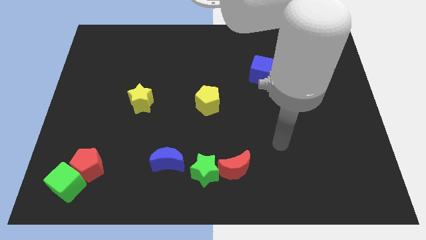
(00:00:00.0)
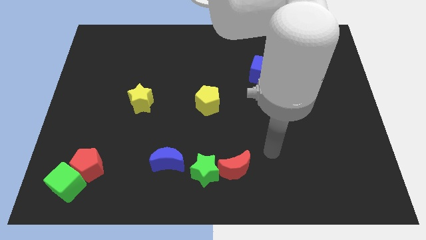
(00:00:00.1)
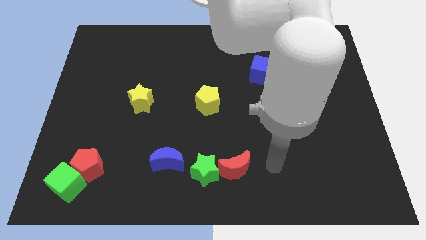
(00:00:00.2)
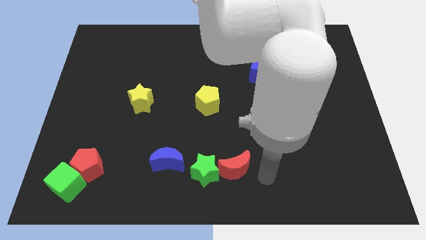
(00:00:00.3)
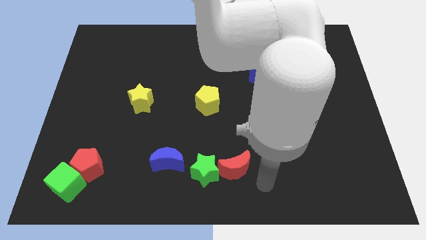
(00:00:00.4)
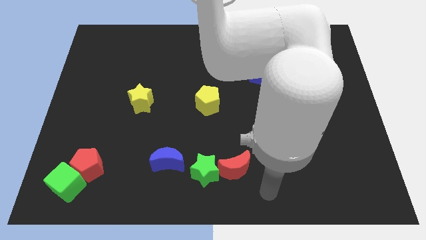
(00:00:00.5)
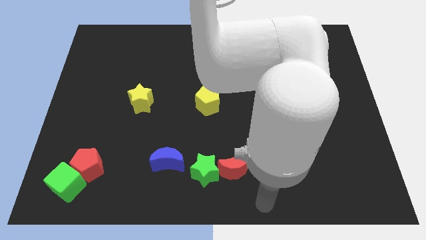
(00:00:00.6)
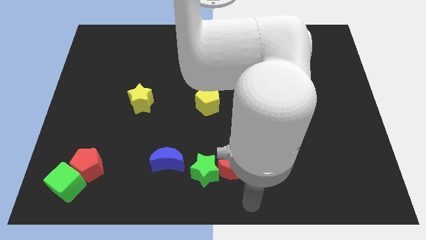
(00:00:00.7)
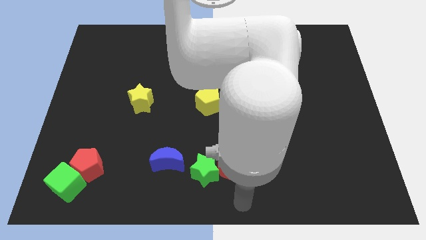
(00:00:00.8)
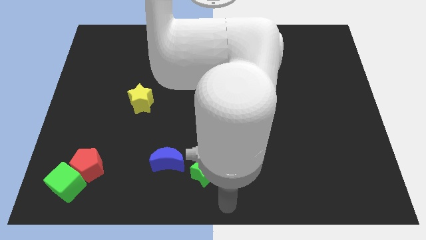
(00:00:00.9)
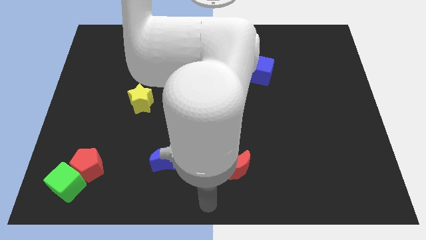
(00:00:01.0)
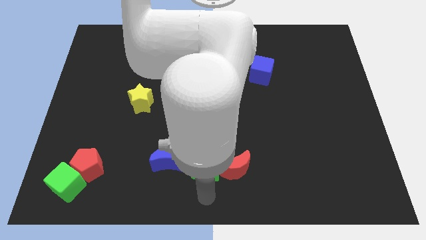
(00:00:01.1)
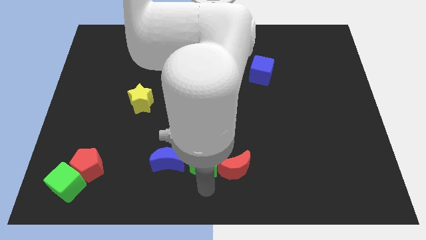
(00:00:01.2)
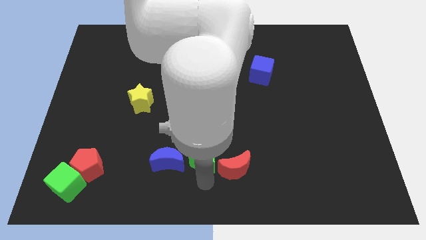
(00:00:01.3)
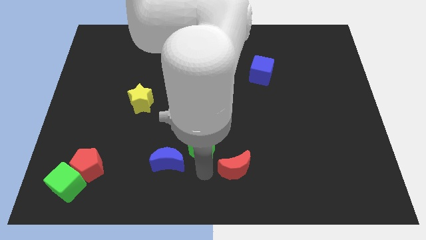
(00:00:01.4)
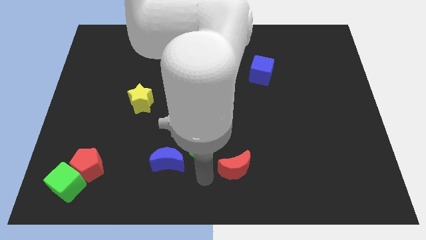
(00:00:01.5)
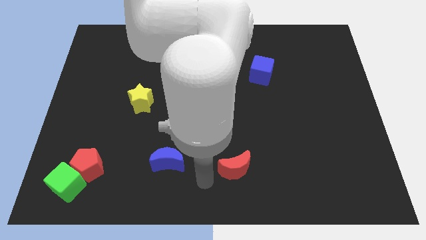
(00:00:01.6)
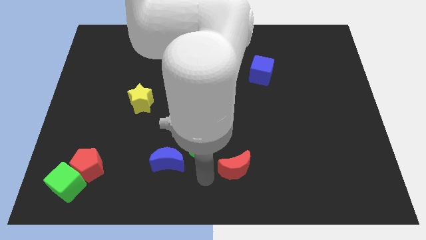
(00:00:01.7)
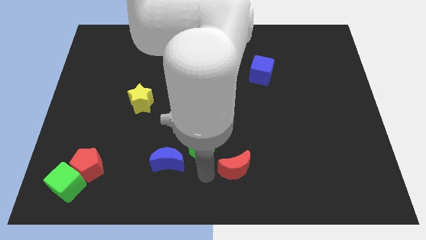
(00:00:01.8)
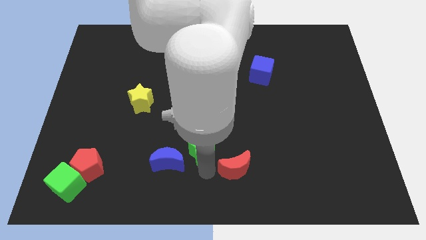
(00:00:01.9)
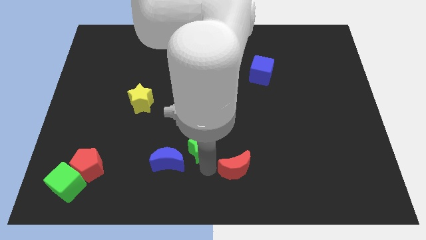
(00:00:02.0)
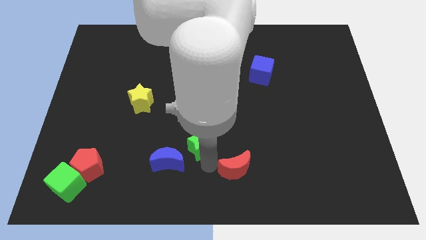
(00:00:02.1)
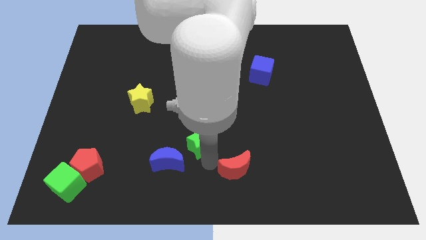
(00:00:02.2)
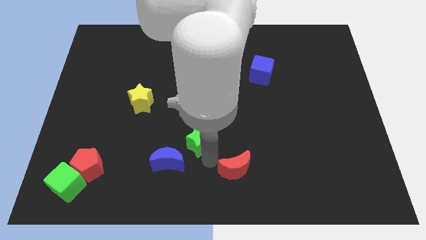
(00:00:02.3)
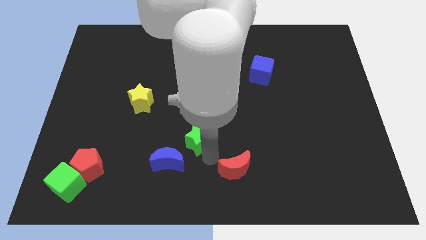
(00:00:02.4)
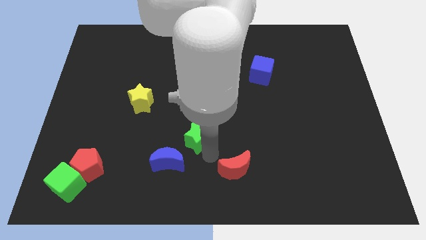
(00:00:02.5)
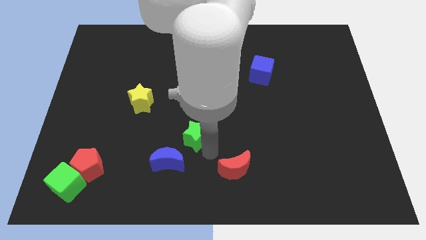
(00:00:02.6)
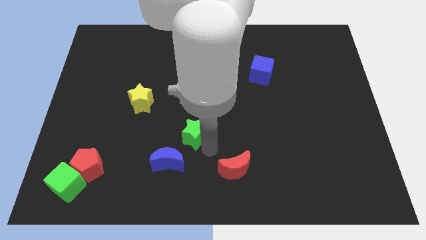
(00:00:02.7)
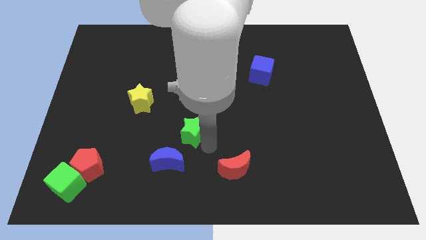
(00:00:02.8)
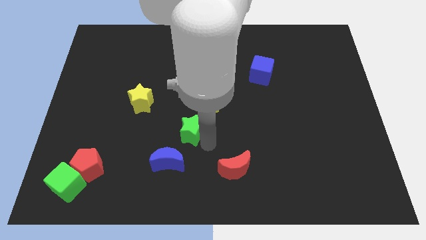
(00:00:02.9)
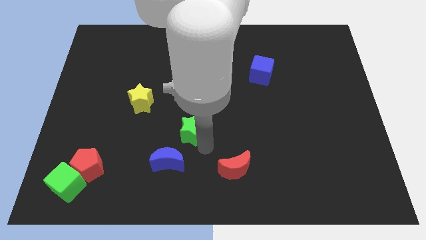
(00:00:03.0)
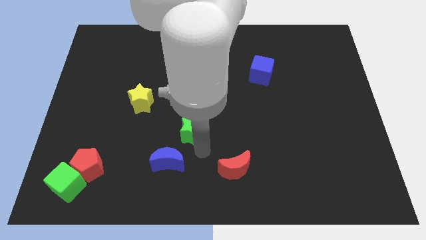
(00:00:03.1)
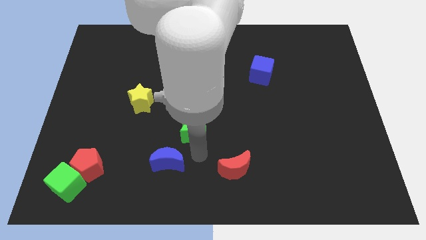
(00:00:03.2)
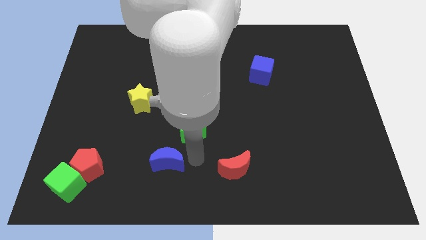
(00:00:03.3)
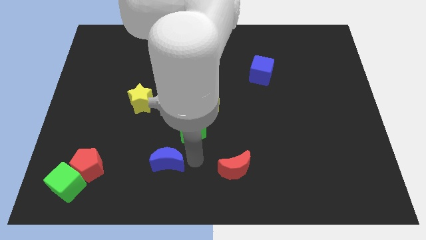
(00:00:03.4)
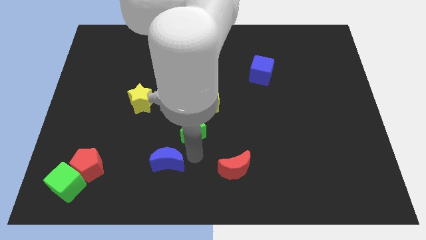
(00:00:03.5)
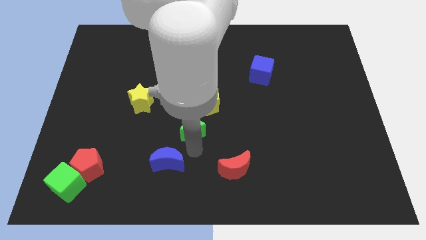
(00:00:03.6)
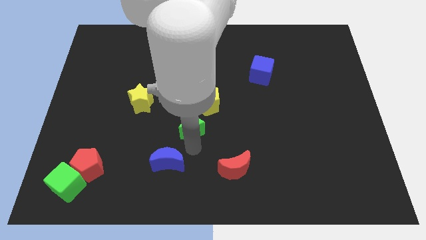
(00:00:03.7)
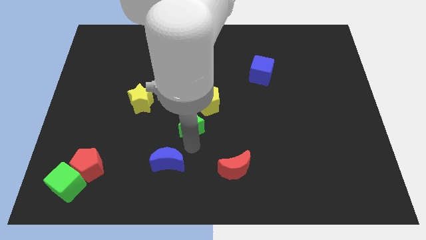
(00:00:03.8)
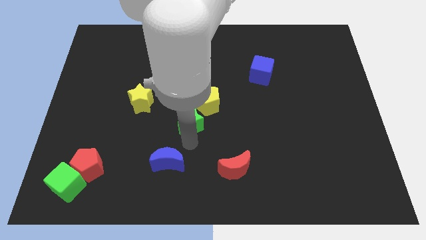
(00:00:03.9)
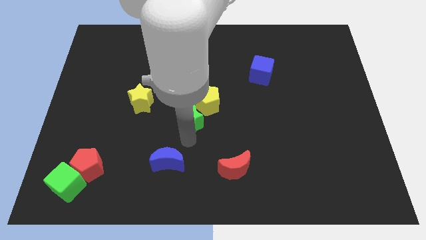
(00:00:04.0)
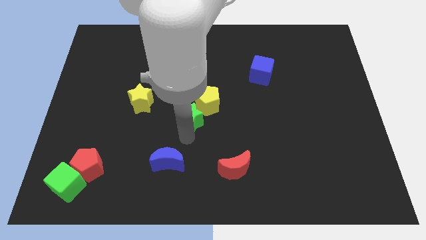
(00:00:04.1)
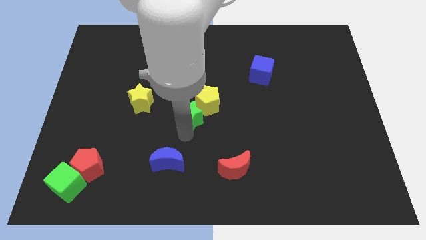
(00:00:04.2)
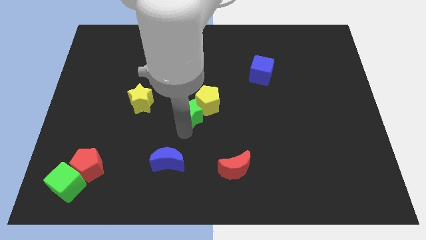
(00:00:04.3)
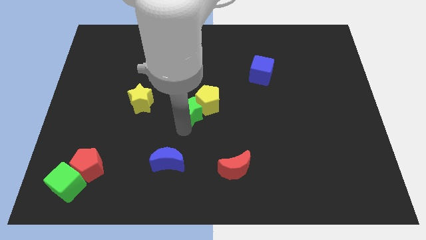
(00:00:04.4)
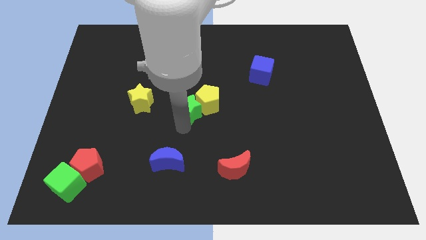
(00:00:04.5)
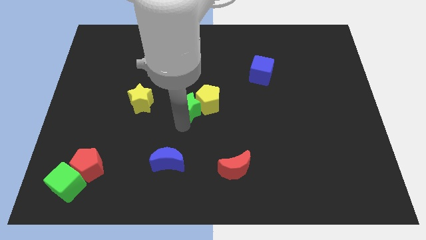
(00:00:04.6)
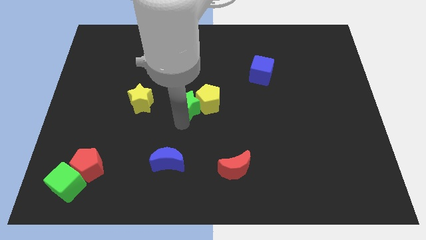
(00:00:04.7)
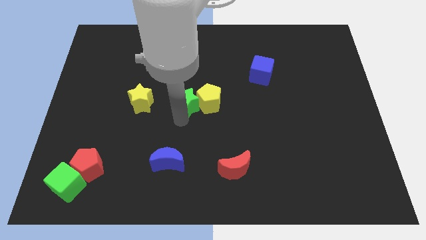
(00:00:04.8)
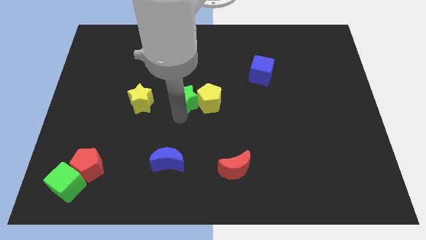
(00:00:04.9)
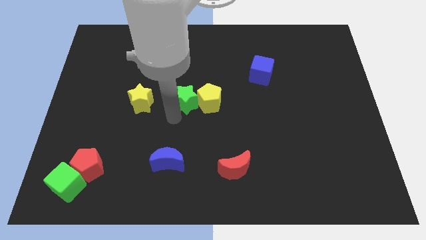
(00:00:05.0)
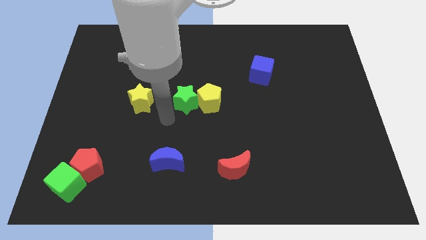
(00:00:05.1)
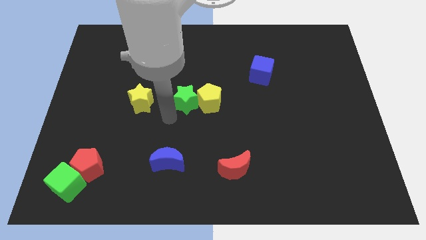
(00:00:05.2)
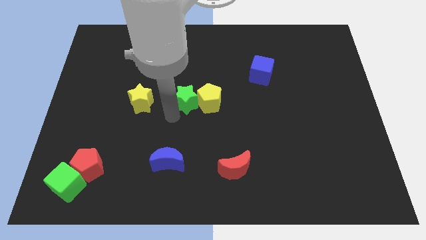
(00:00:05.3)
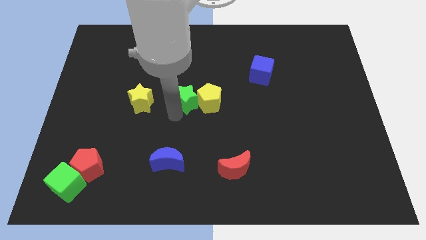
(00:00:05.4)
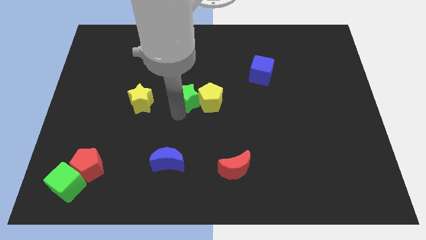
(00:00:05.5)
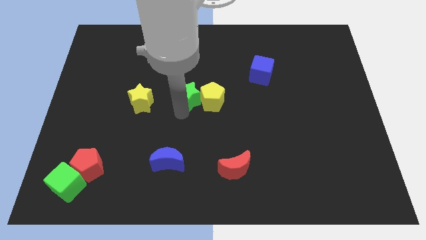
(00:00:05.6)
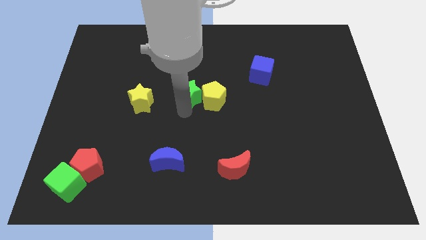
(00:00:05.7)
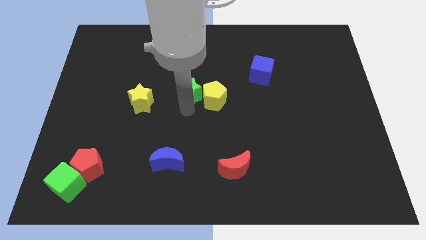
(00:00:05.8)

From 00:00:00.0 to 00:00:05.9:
move the green star upwards

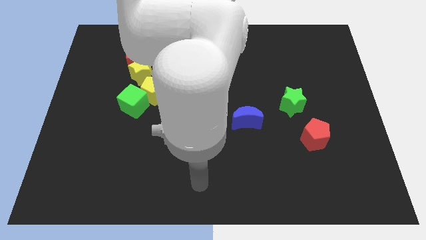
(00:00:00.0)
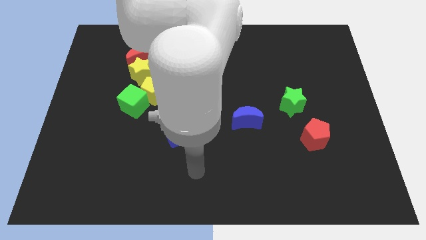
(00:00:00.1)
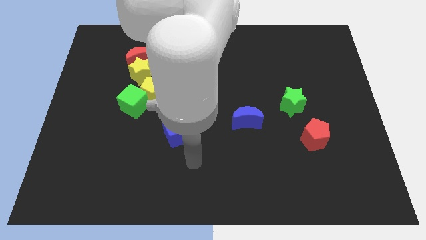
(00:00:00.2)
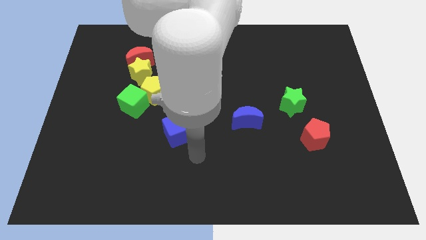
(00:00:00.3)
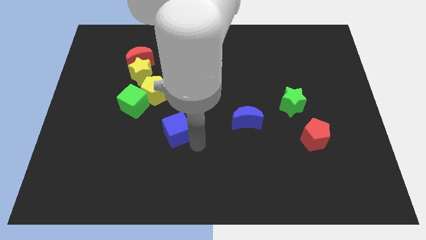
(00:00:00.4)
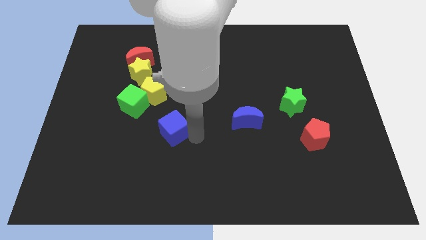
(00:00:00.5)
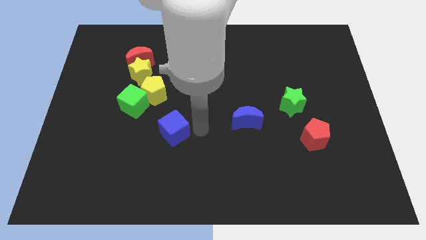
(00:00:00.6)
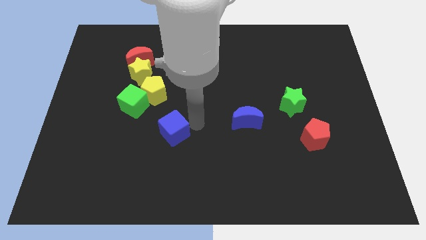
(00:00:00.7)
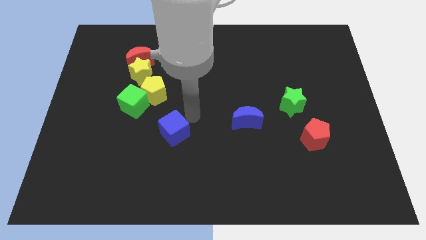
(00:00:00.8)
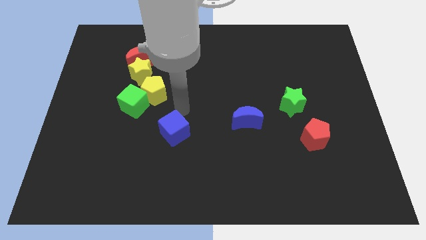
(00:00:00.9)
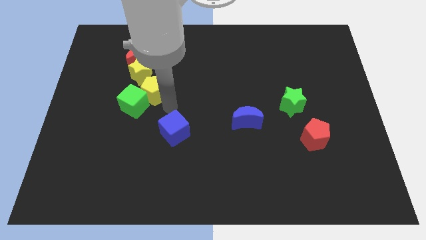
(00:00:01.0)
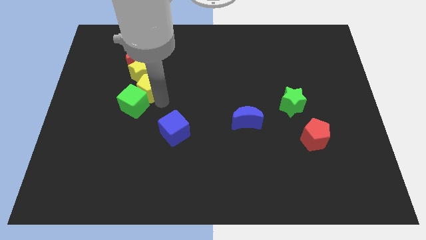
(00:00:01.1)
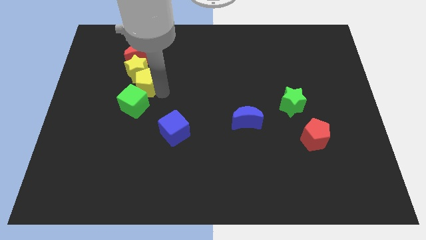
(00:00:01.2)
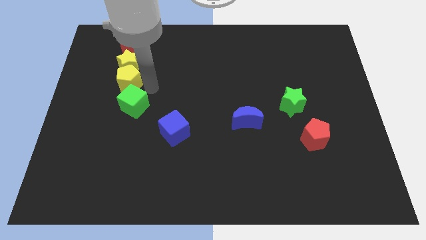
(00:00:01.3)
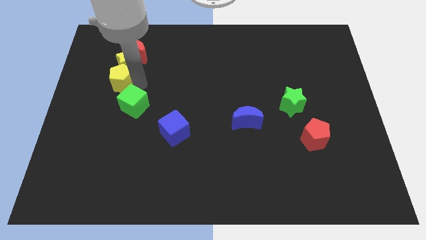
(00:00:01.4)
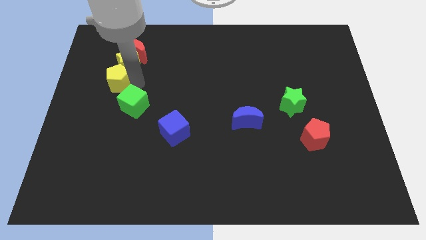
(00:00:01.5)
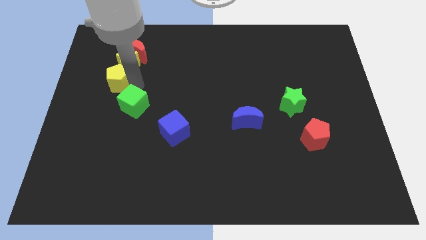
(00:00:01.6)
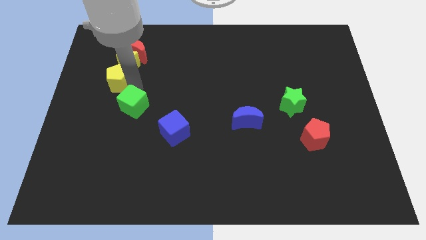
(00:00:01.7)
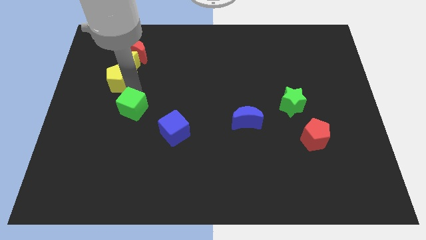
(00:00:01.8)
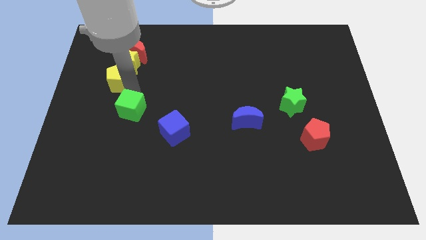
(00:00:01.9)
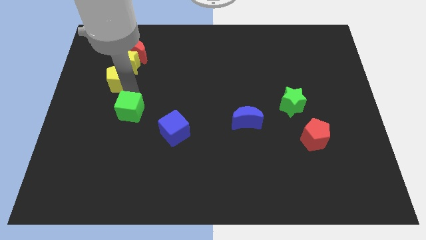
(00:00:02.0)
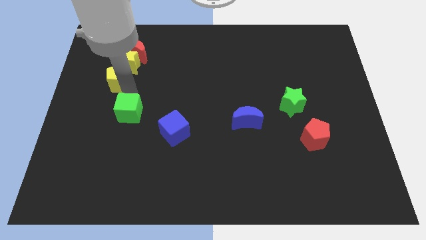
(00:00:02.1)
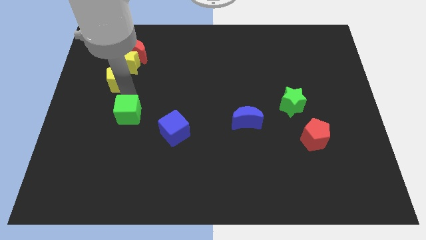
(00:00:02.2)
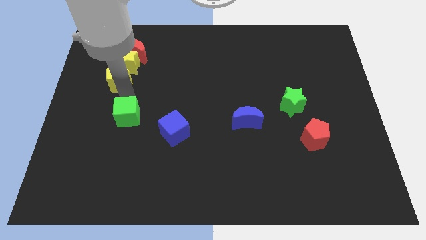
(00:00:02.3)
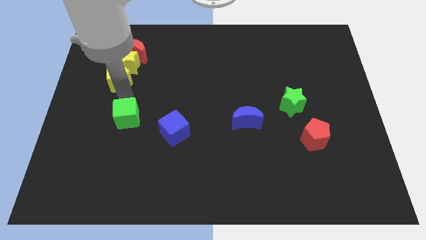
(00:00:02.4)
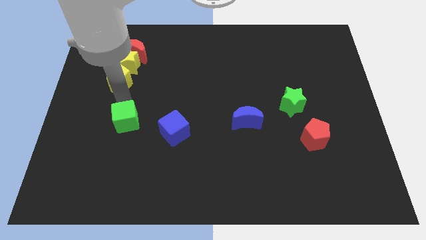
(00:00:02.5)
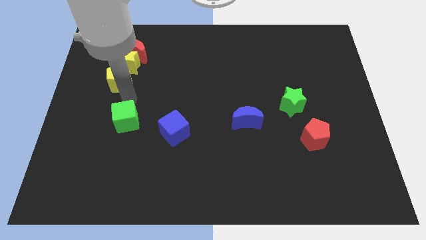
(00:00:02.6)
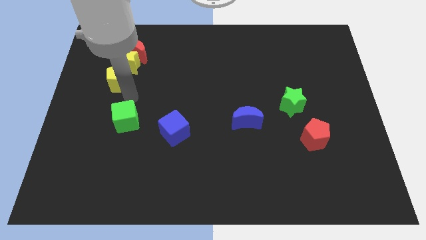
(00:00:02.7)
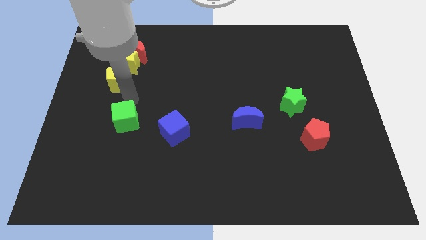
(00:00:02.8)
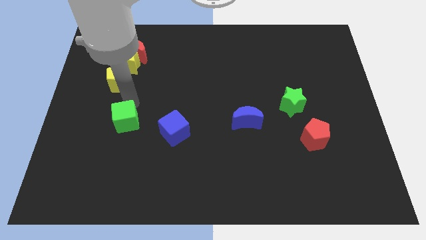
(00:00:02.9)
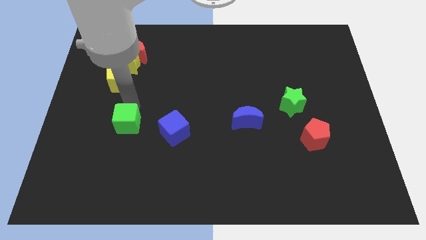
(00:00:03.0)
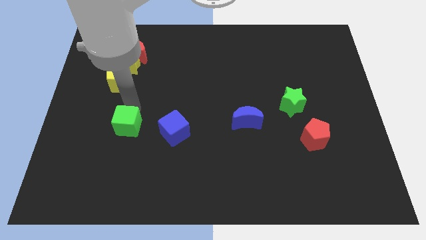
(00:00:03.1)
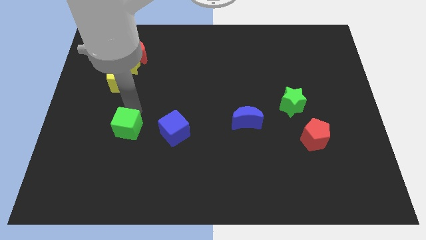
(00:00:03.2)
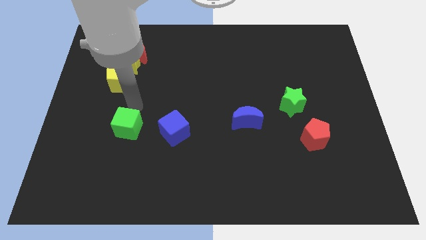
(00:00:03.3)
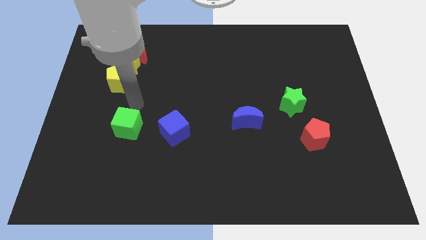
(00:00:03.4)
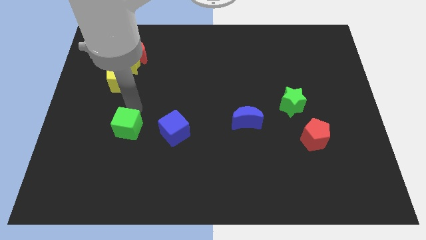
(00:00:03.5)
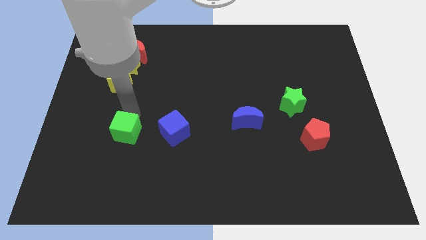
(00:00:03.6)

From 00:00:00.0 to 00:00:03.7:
slightly push the green cube down
